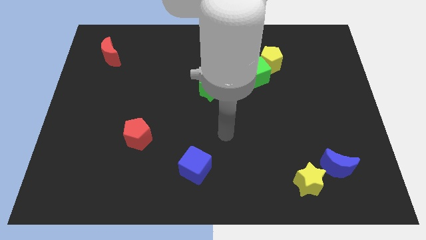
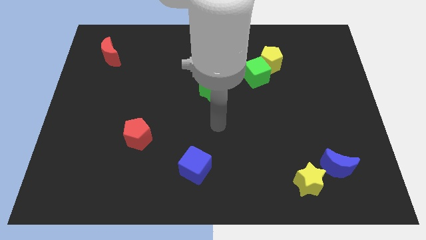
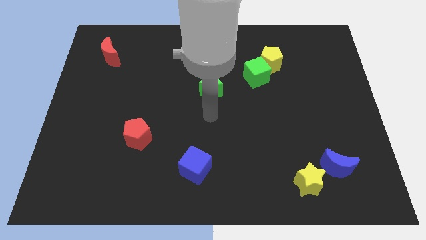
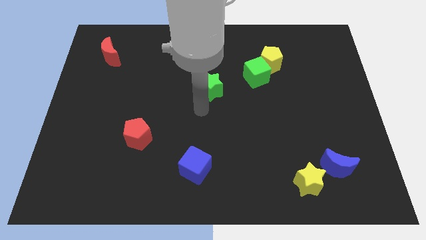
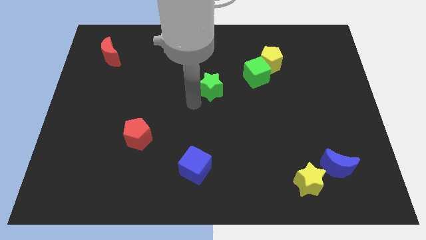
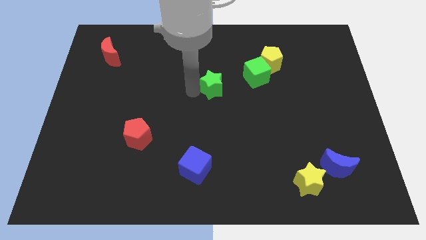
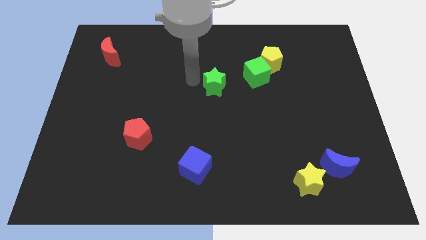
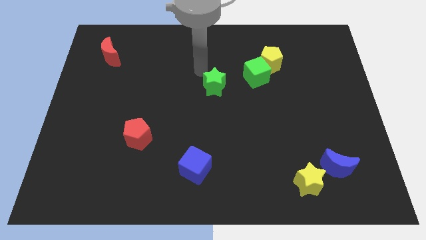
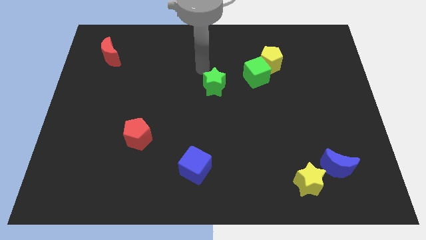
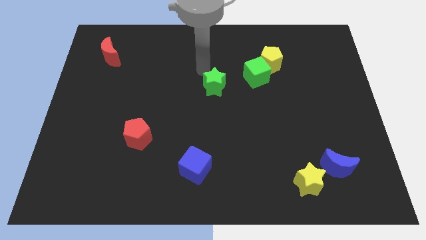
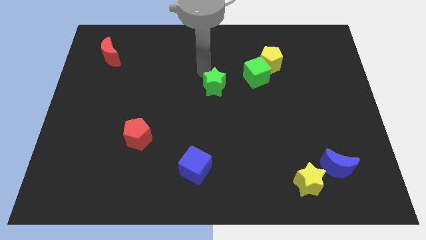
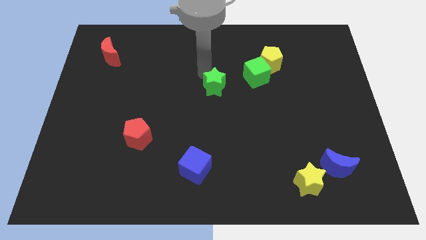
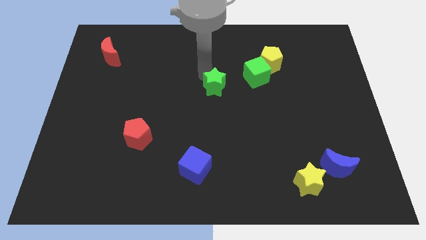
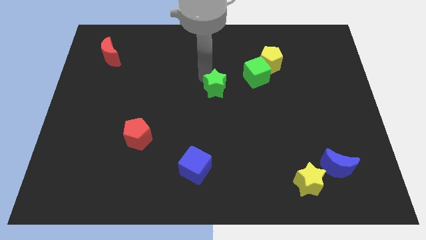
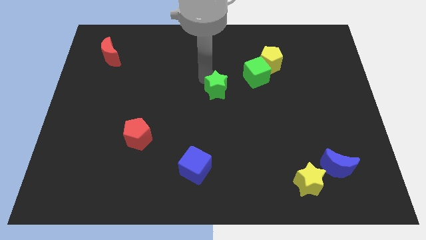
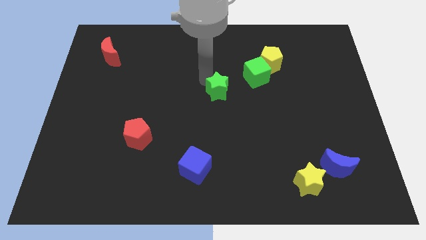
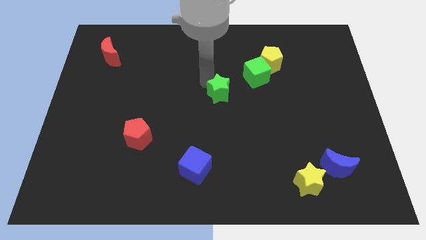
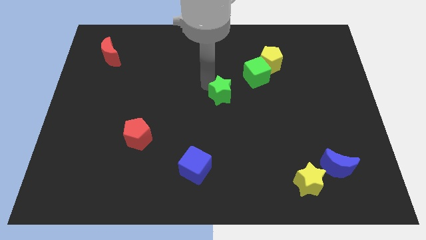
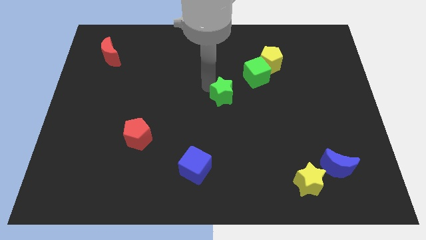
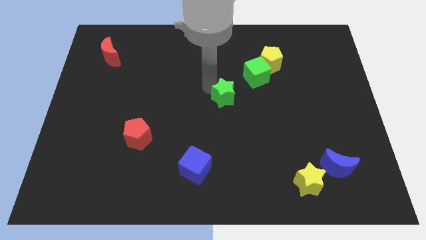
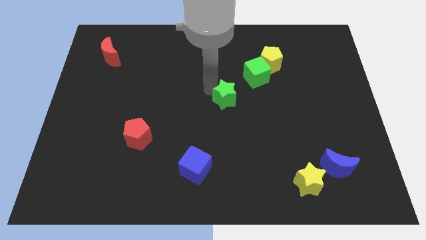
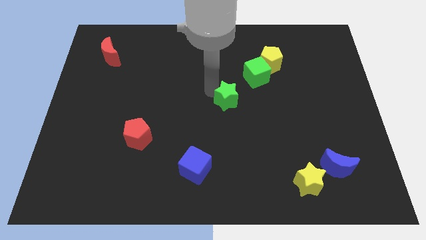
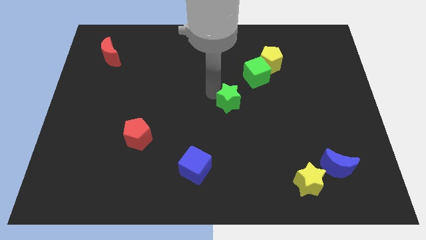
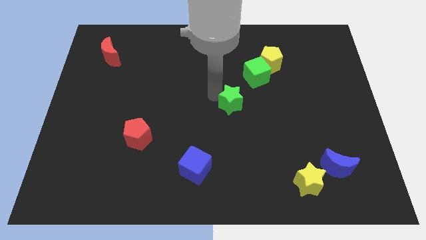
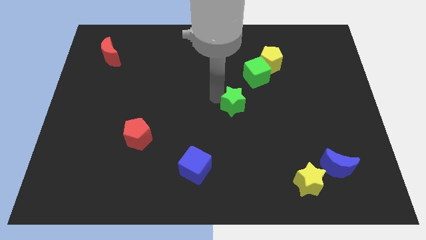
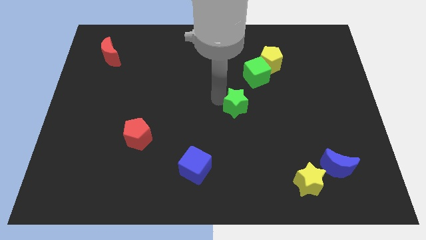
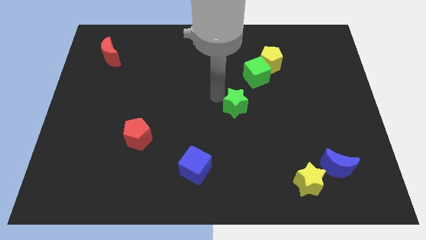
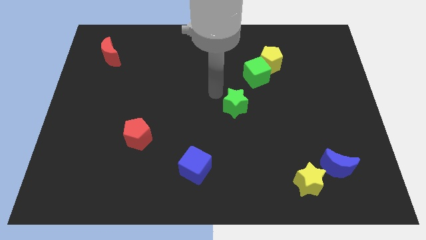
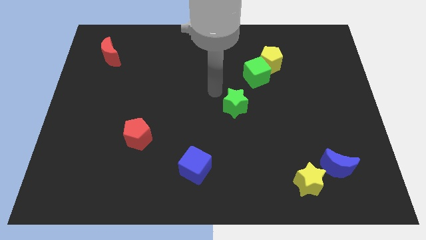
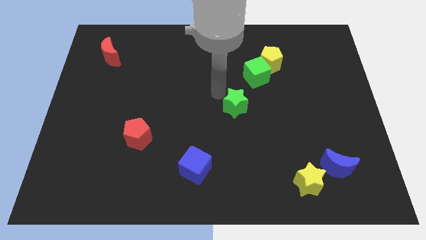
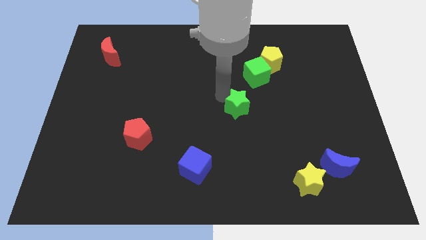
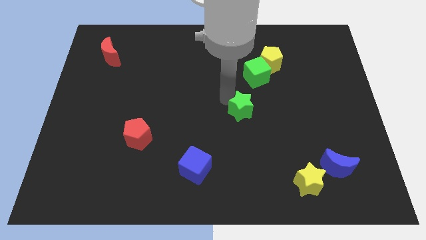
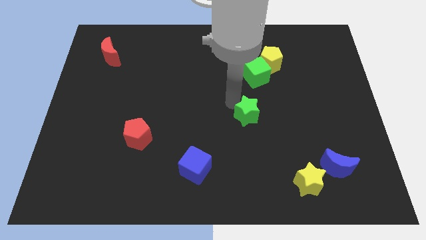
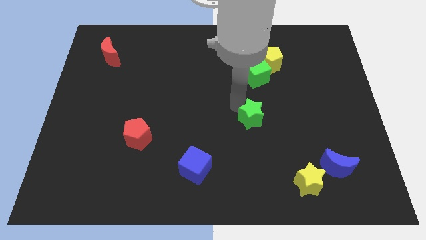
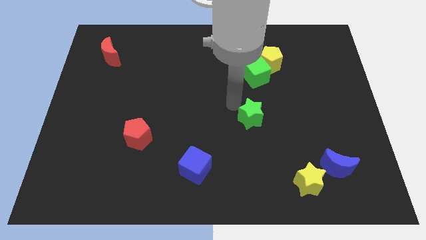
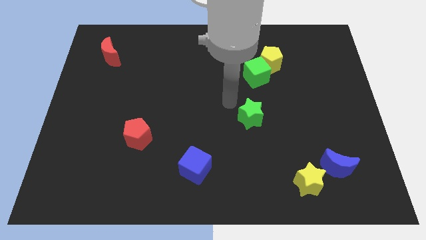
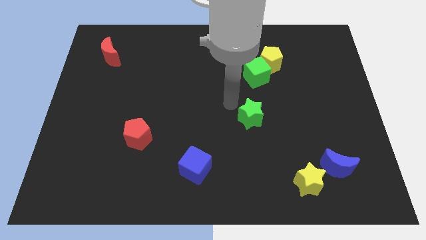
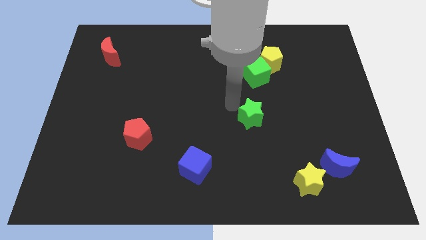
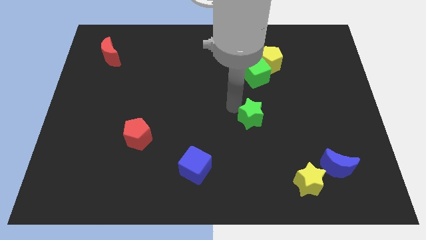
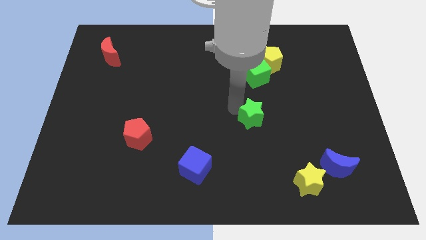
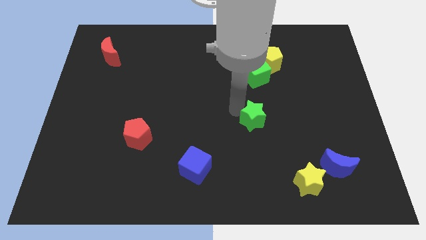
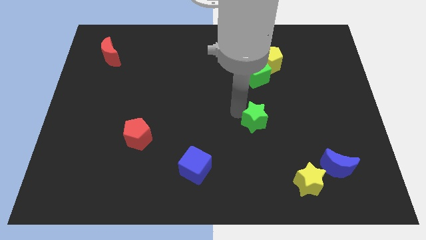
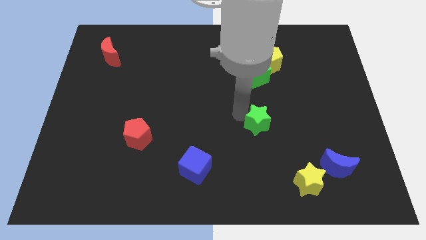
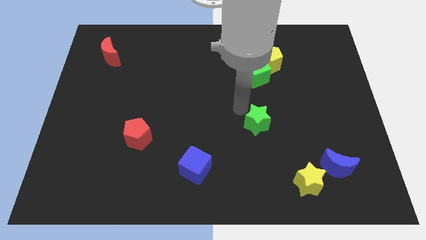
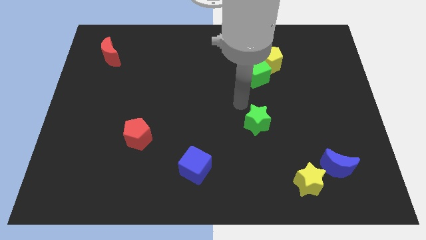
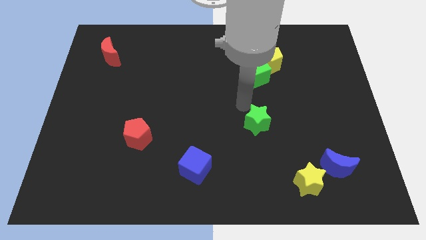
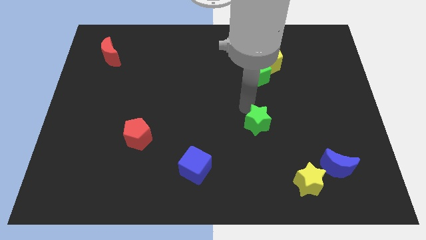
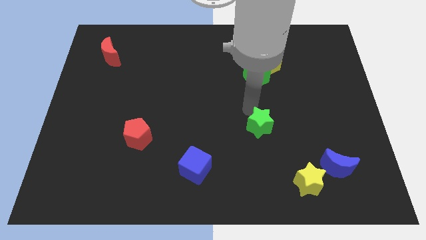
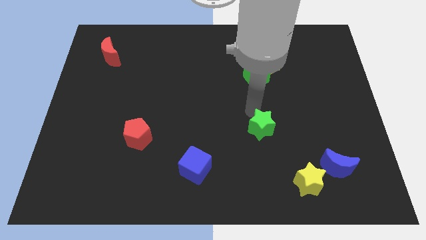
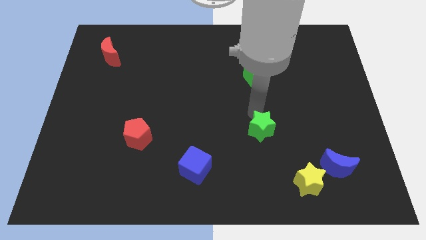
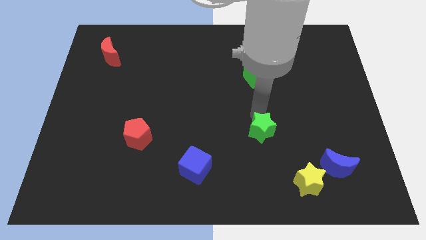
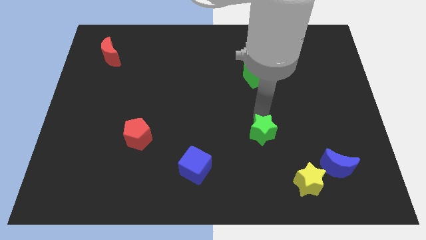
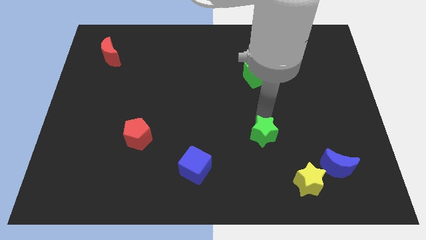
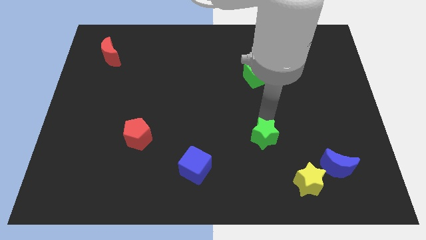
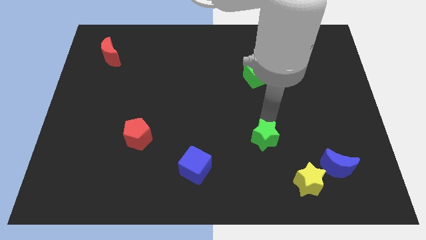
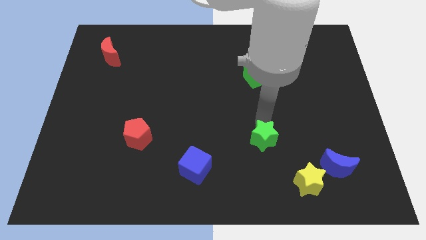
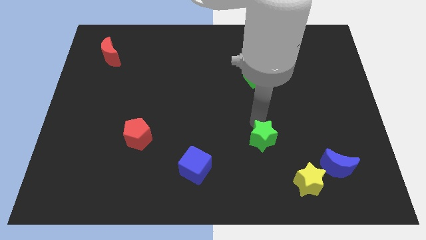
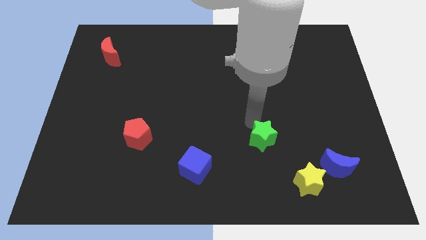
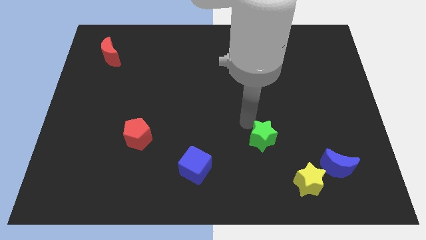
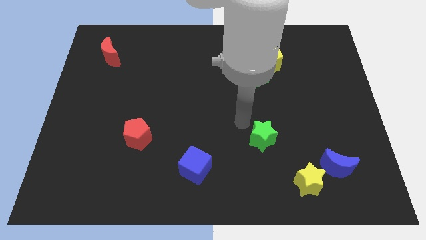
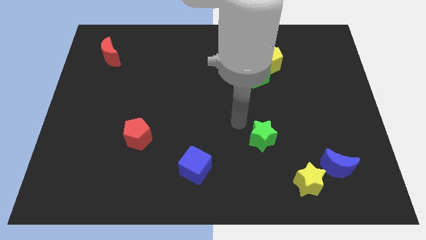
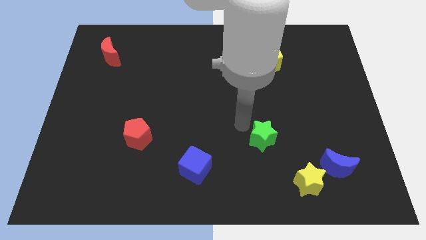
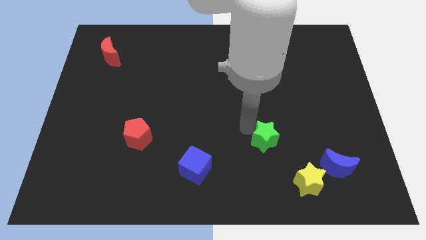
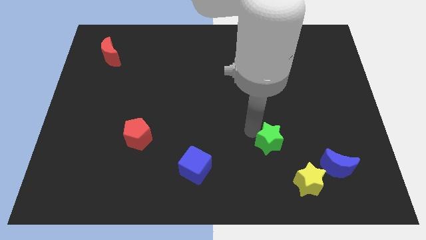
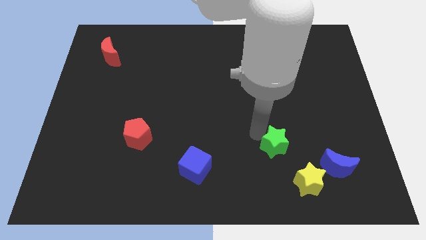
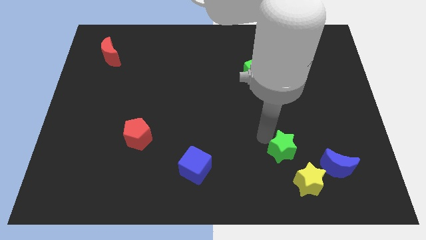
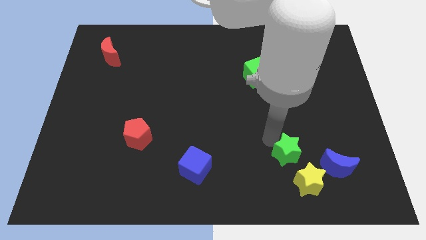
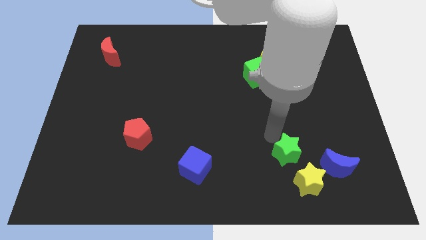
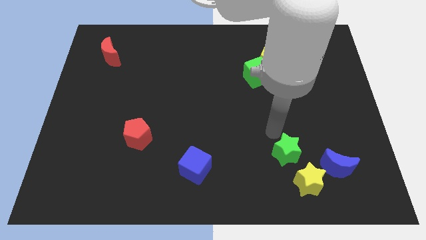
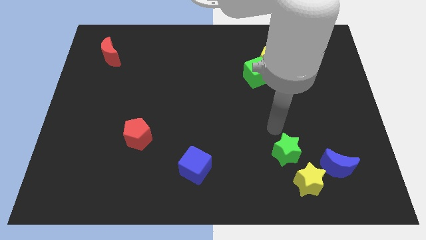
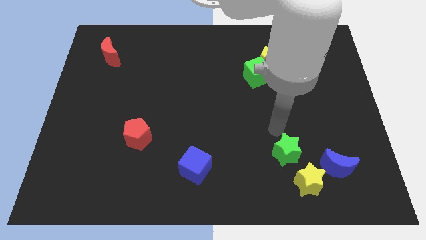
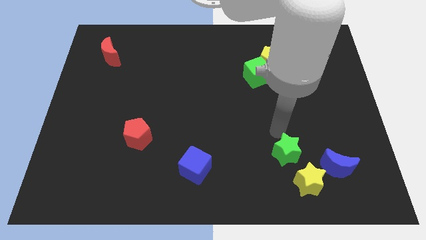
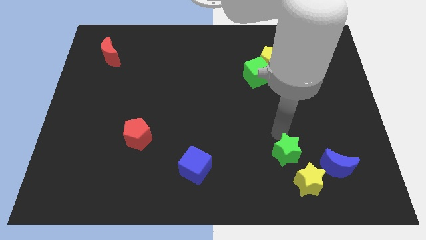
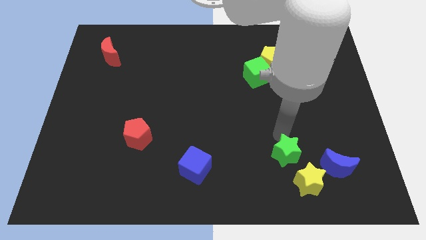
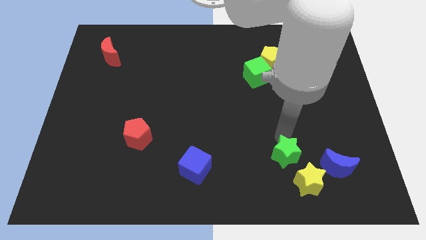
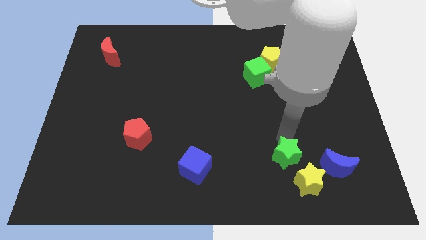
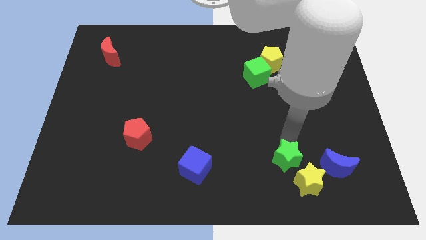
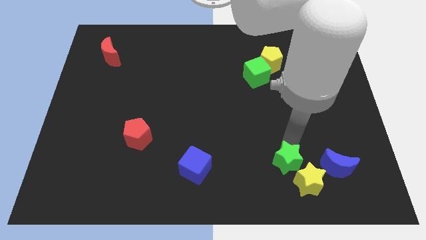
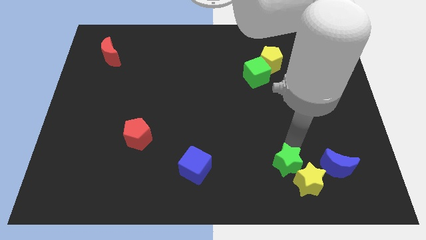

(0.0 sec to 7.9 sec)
put the green star close to the yellow star
